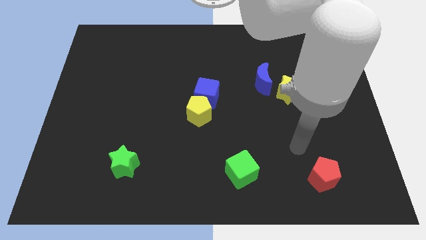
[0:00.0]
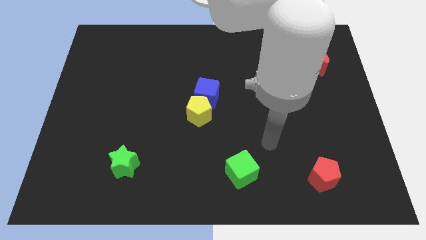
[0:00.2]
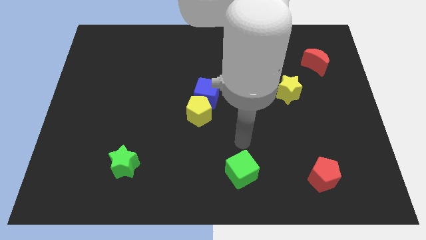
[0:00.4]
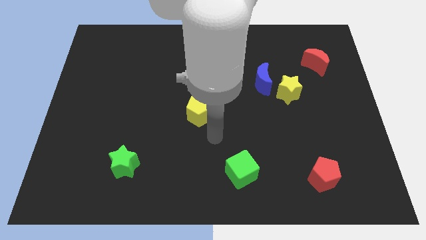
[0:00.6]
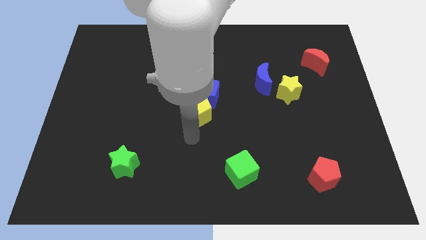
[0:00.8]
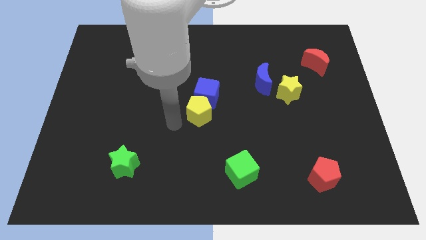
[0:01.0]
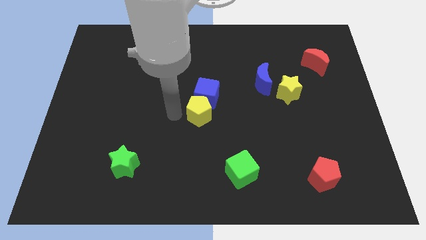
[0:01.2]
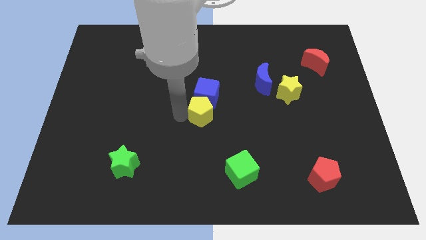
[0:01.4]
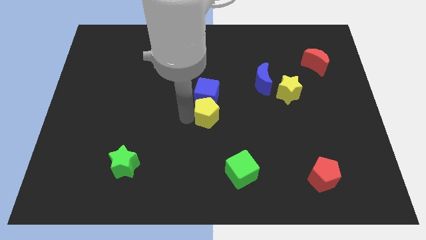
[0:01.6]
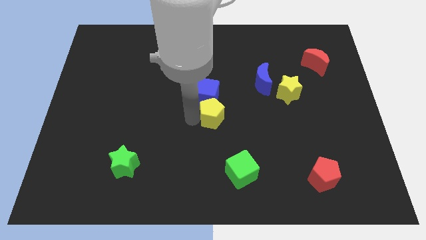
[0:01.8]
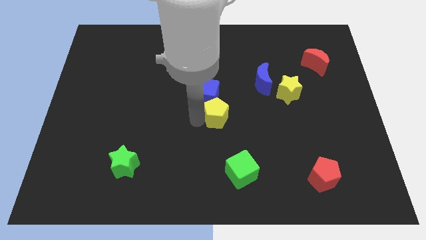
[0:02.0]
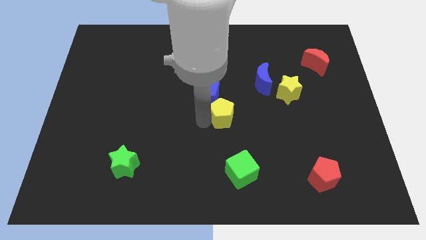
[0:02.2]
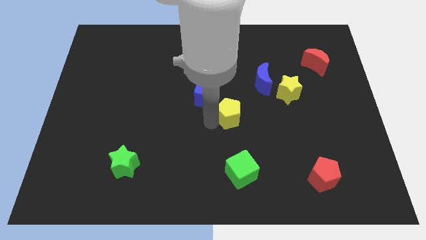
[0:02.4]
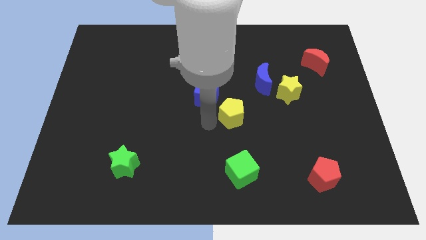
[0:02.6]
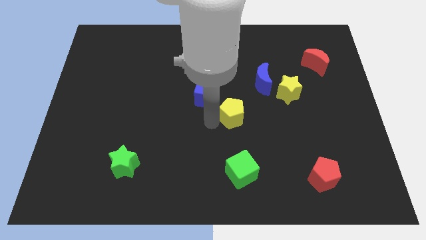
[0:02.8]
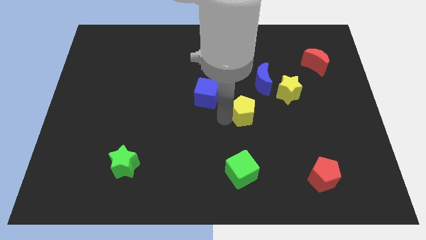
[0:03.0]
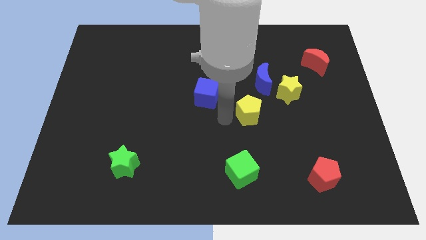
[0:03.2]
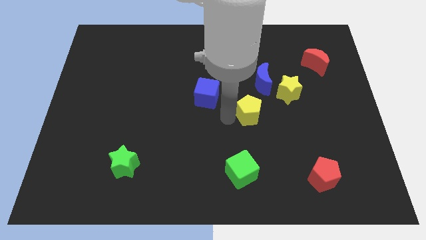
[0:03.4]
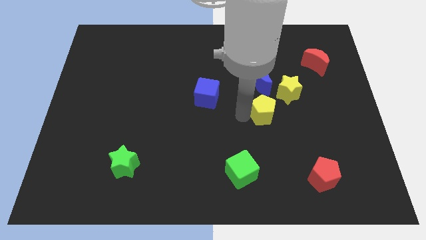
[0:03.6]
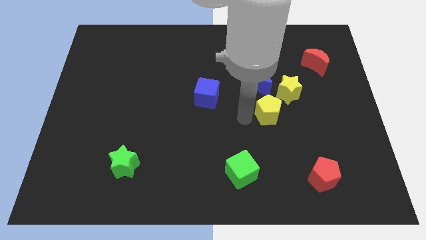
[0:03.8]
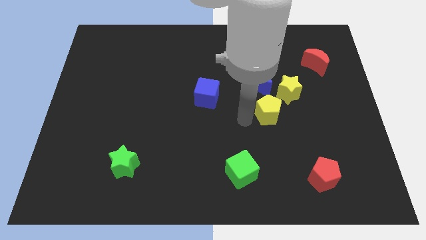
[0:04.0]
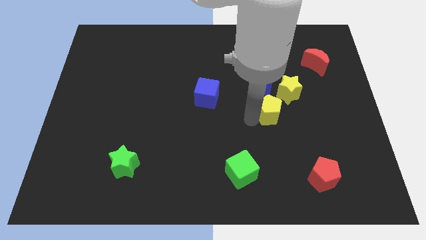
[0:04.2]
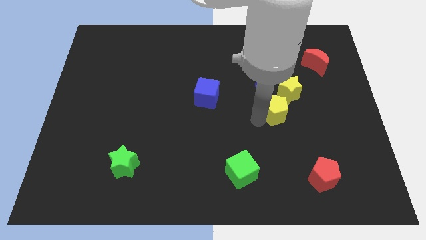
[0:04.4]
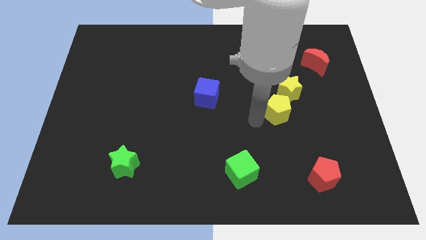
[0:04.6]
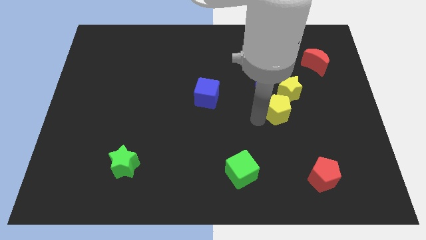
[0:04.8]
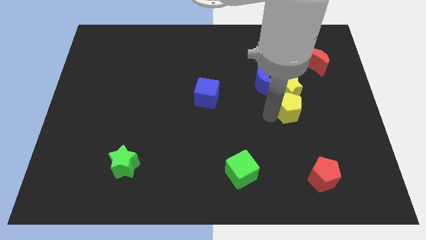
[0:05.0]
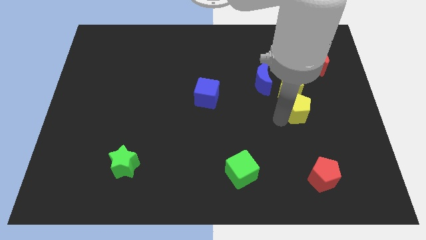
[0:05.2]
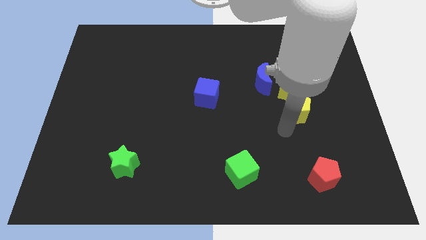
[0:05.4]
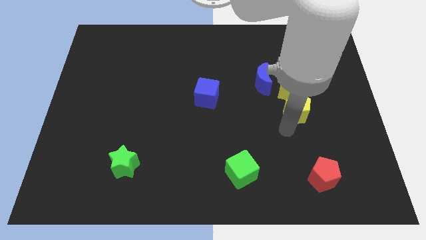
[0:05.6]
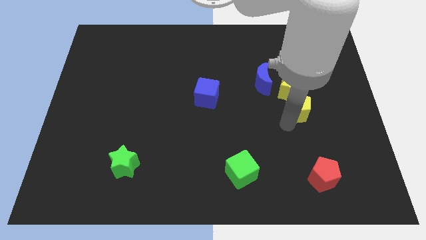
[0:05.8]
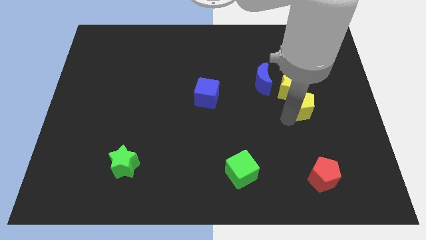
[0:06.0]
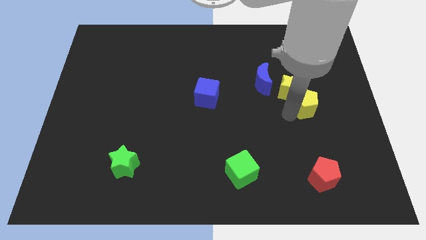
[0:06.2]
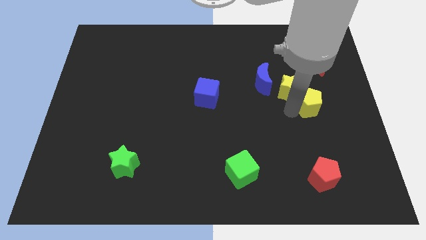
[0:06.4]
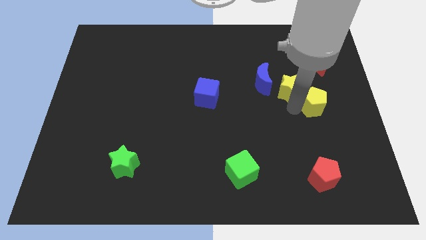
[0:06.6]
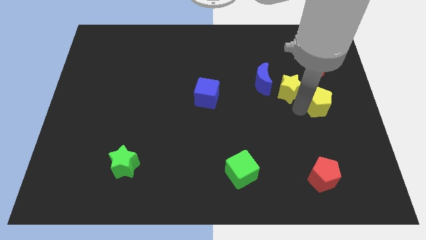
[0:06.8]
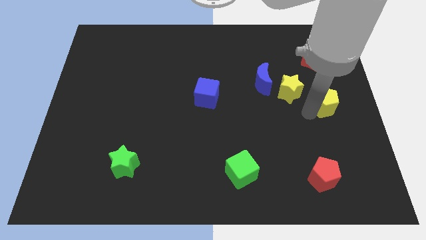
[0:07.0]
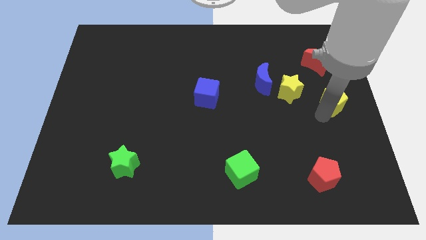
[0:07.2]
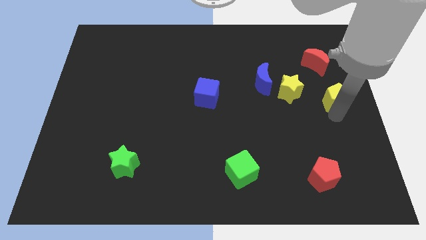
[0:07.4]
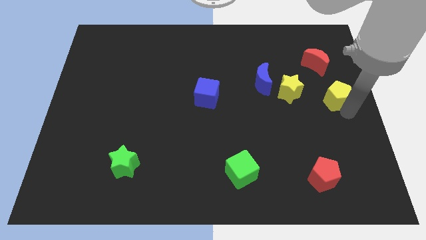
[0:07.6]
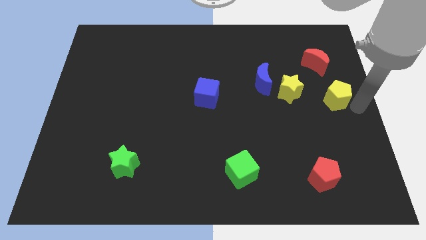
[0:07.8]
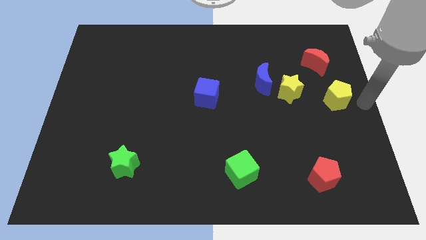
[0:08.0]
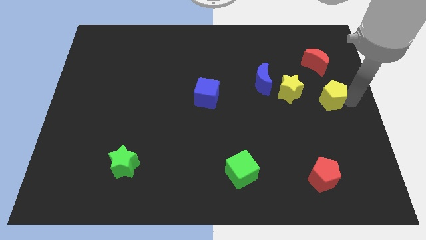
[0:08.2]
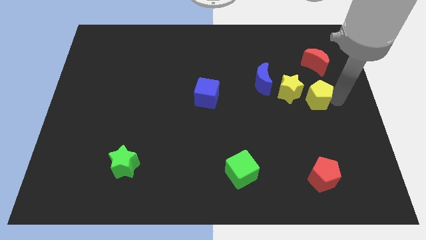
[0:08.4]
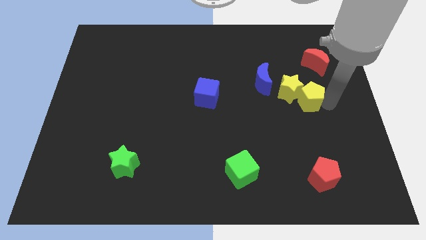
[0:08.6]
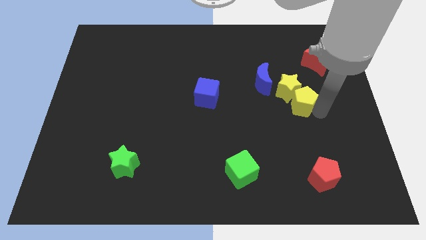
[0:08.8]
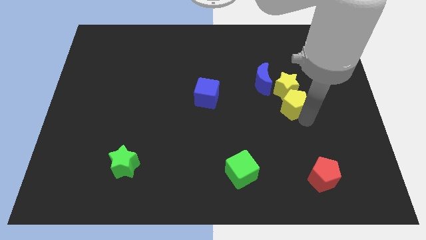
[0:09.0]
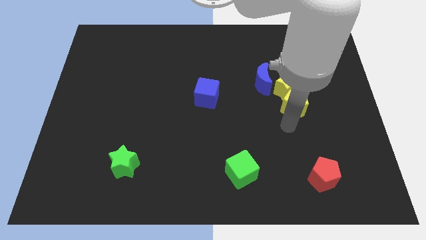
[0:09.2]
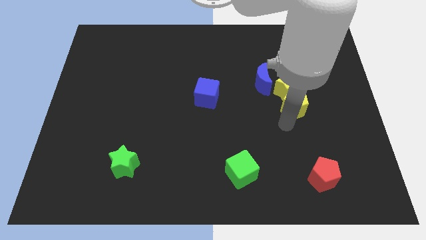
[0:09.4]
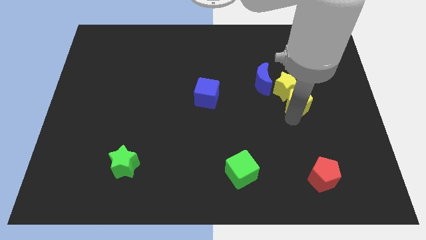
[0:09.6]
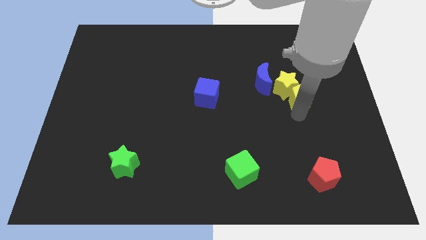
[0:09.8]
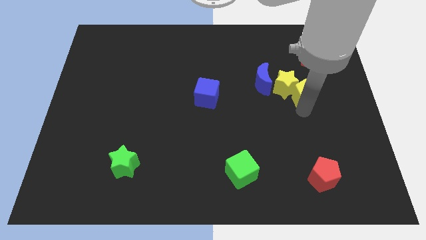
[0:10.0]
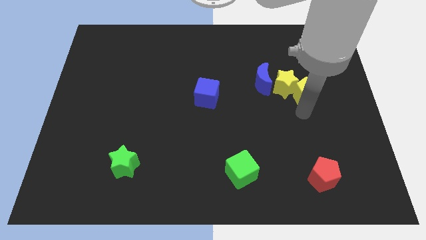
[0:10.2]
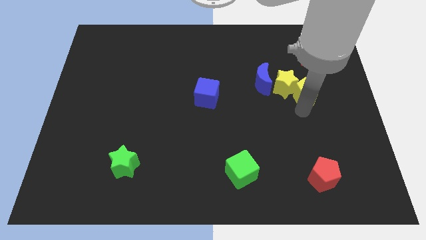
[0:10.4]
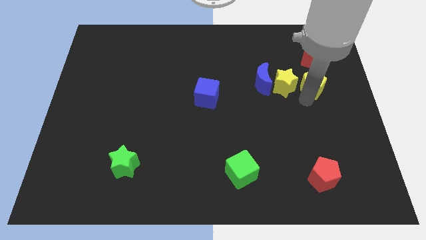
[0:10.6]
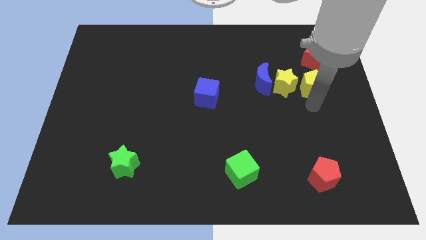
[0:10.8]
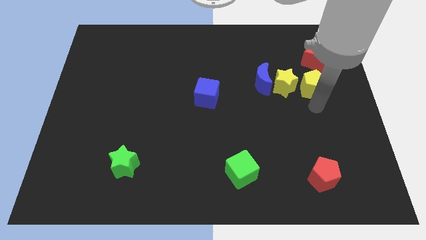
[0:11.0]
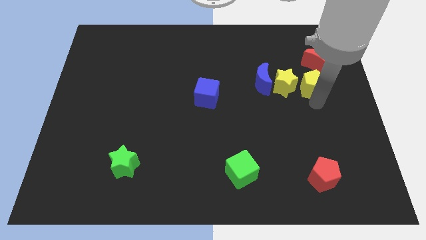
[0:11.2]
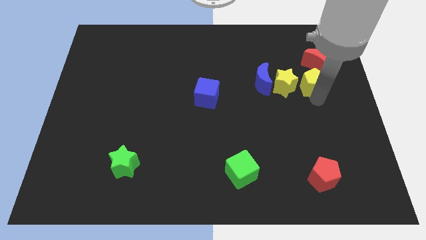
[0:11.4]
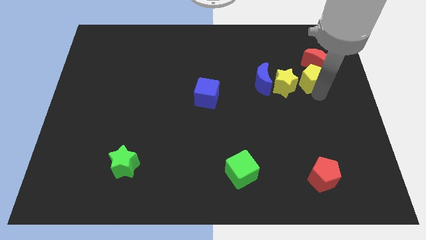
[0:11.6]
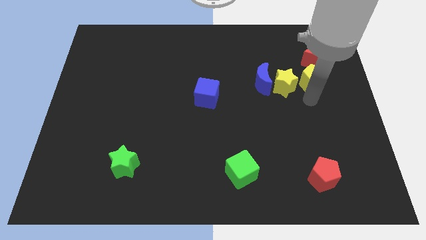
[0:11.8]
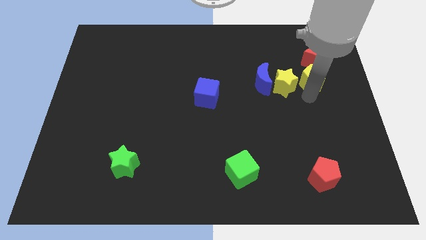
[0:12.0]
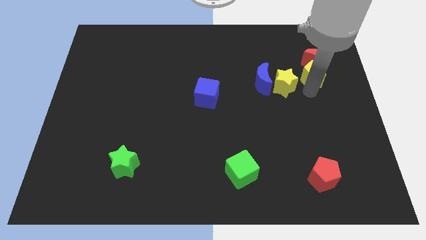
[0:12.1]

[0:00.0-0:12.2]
put the yellow pentagon to the red moon

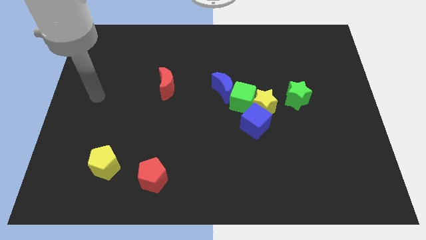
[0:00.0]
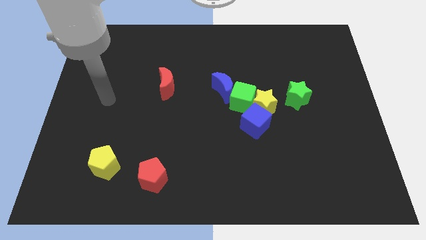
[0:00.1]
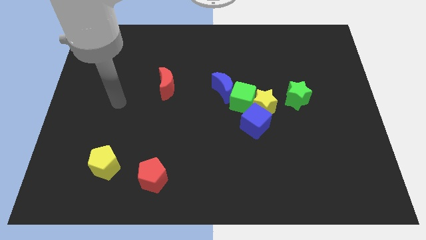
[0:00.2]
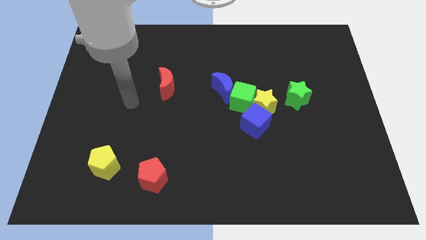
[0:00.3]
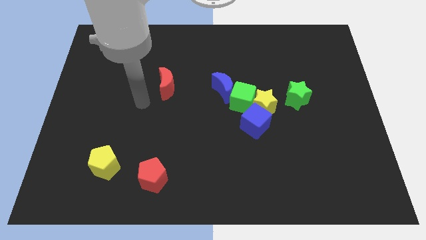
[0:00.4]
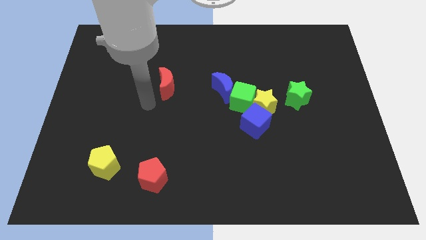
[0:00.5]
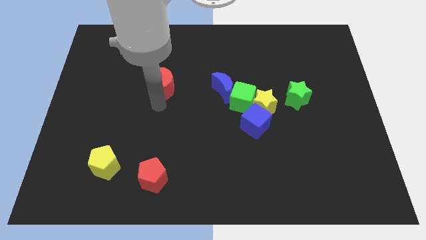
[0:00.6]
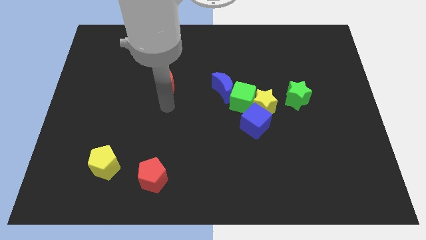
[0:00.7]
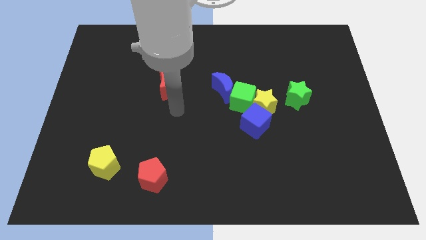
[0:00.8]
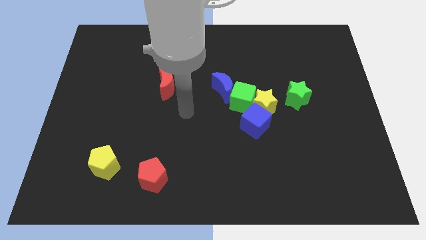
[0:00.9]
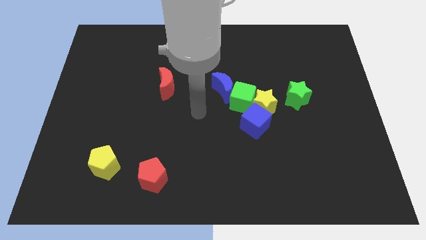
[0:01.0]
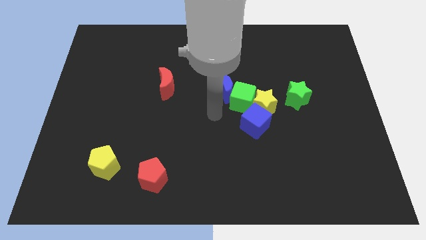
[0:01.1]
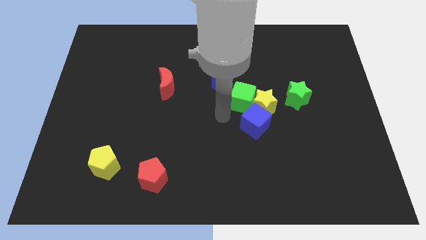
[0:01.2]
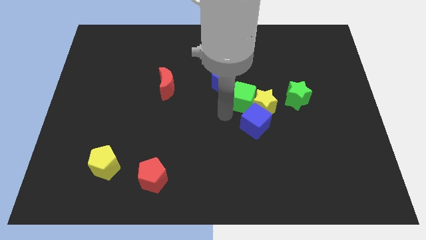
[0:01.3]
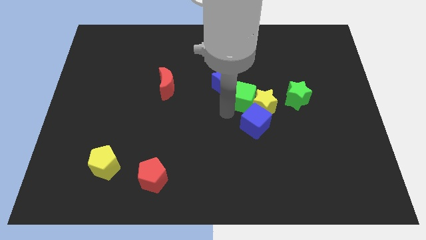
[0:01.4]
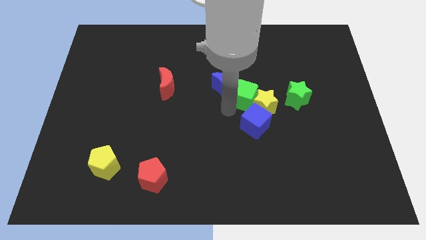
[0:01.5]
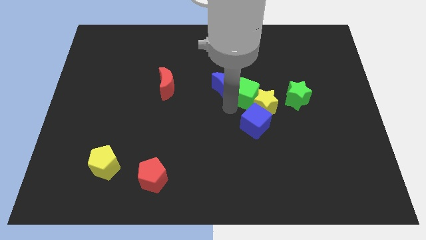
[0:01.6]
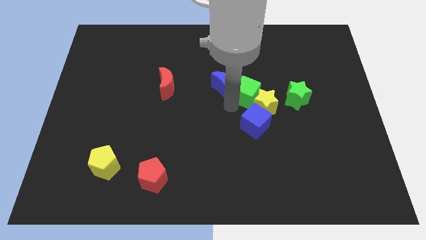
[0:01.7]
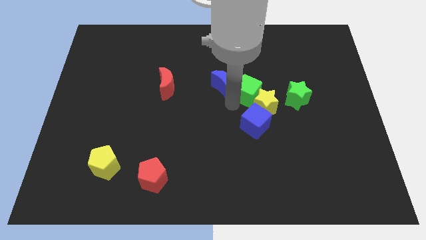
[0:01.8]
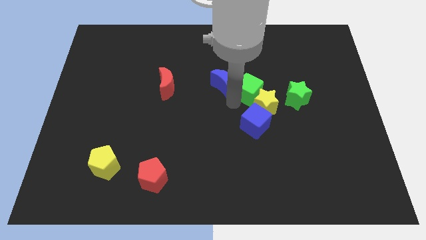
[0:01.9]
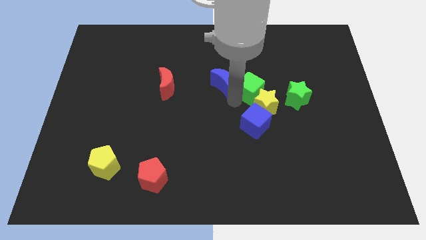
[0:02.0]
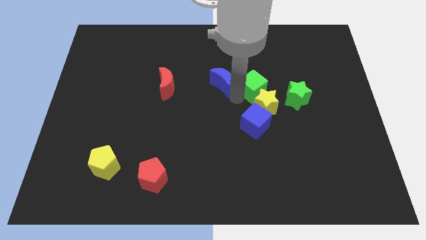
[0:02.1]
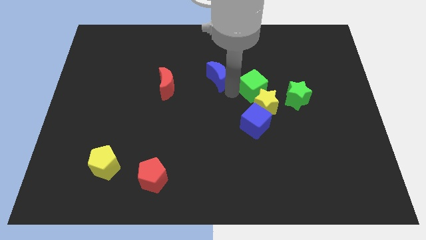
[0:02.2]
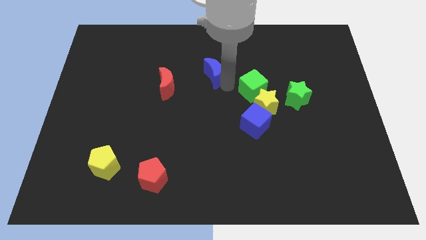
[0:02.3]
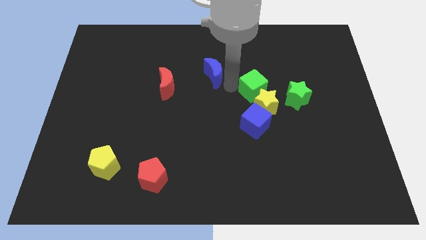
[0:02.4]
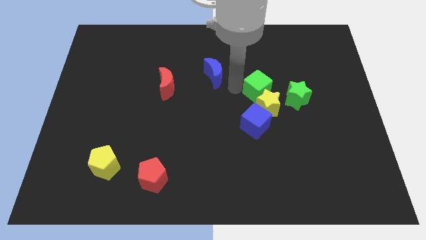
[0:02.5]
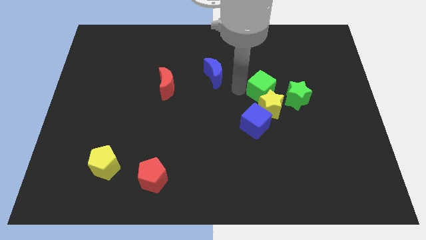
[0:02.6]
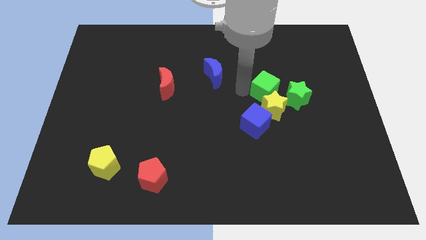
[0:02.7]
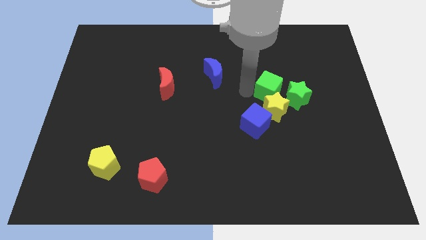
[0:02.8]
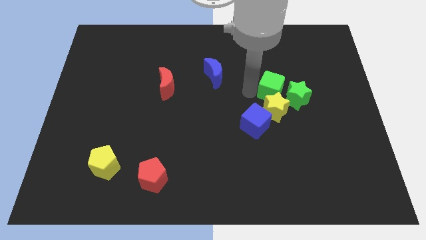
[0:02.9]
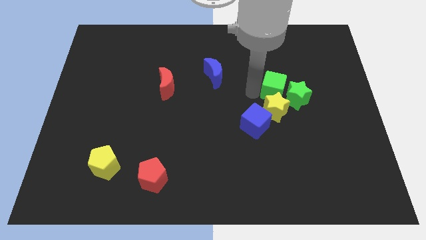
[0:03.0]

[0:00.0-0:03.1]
put the green cube to the green star
